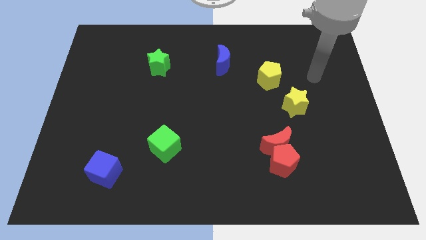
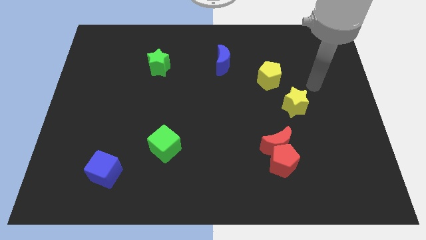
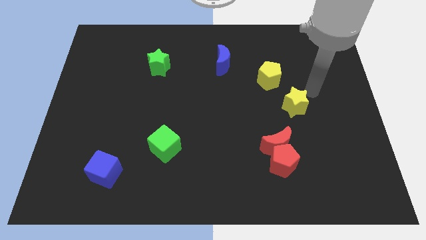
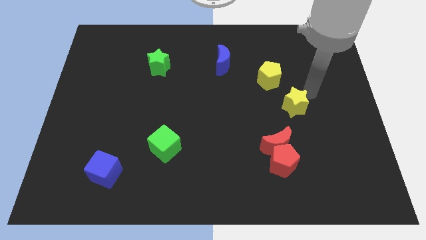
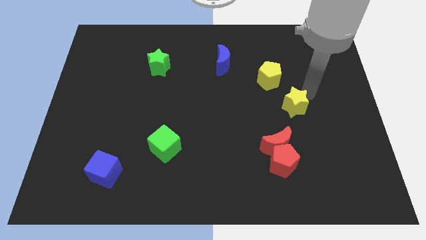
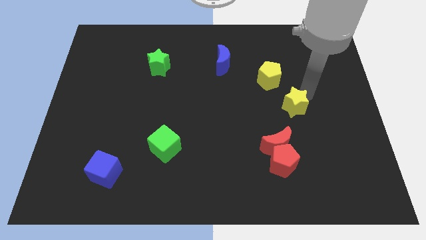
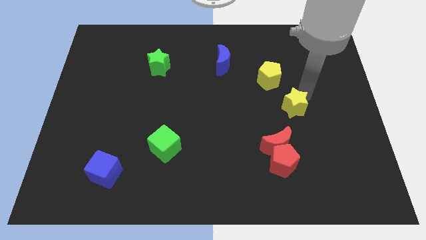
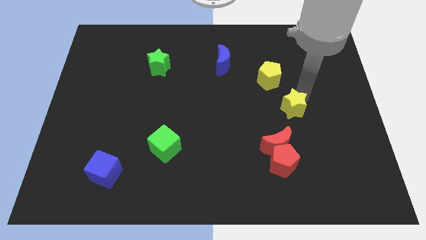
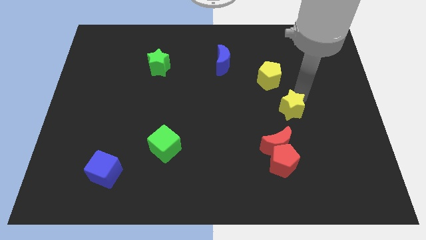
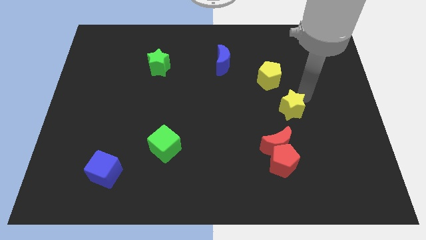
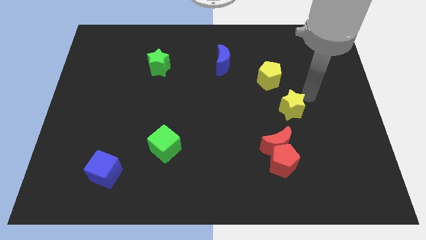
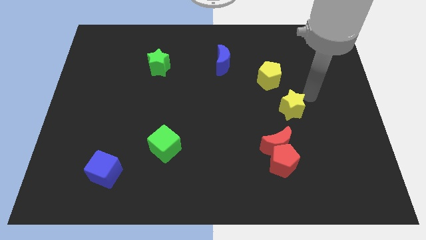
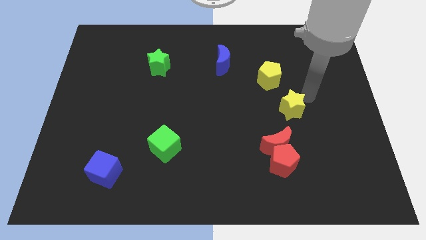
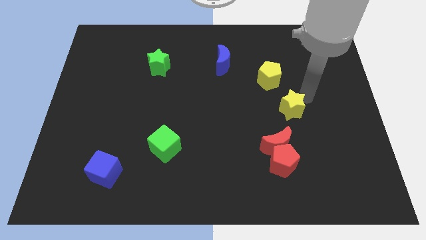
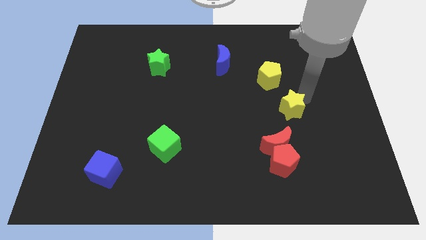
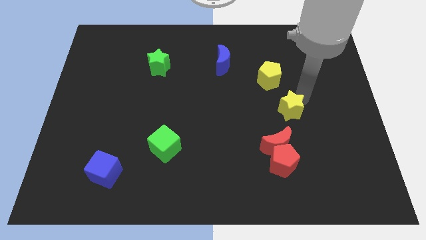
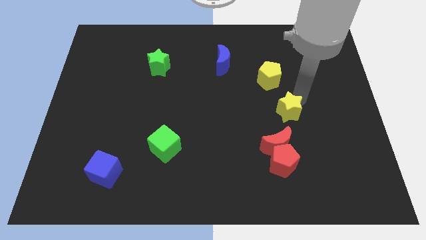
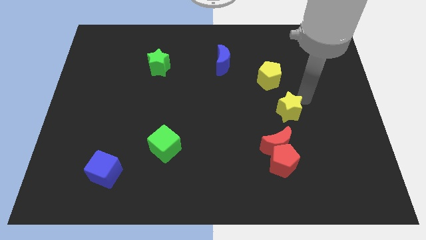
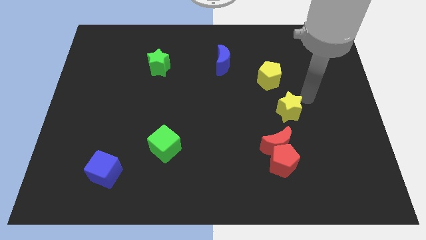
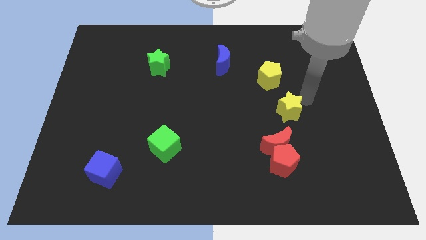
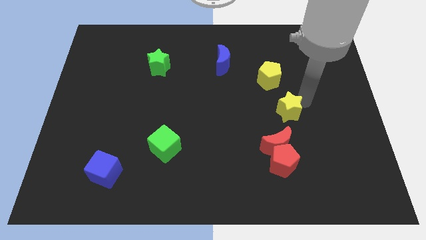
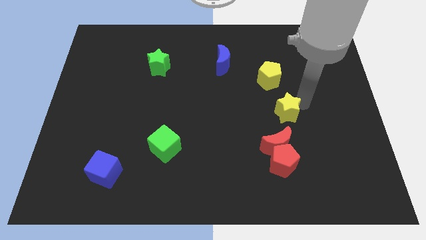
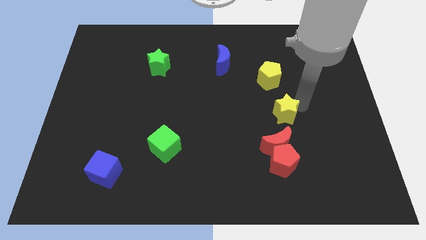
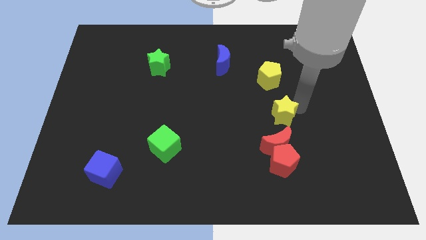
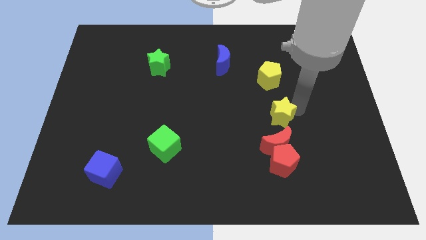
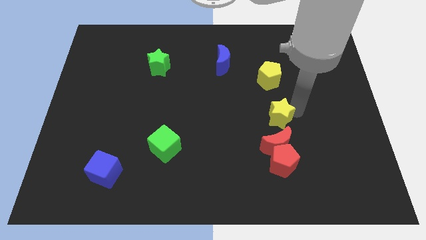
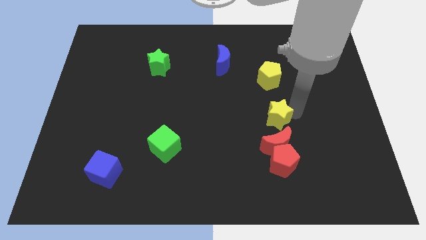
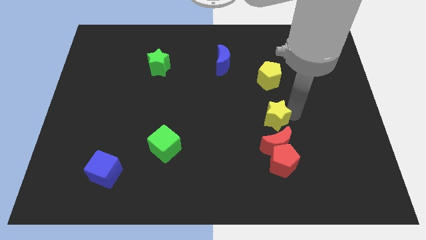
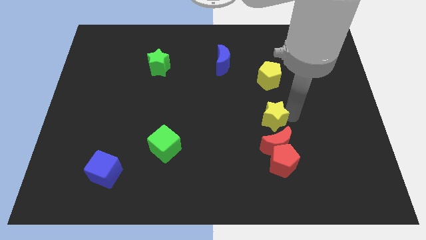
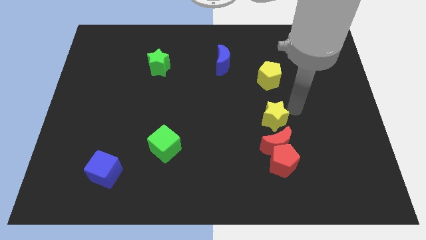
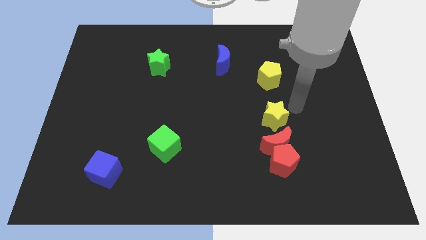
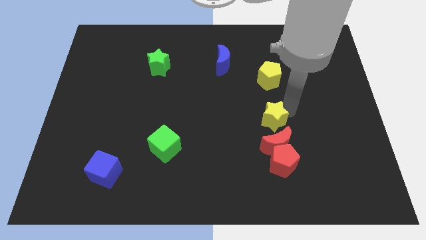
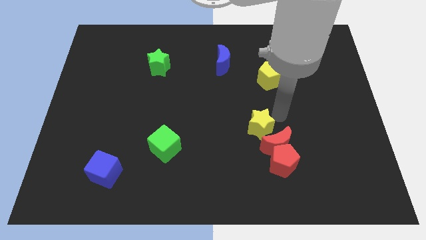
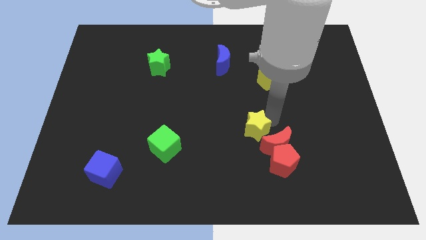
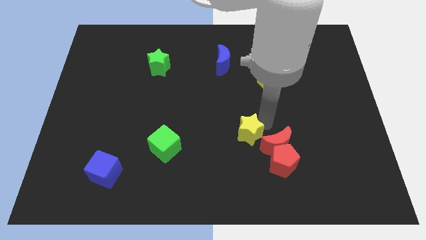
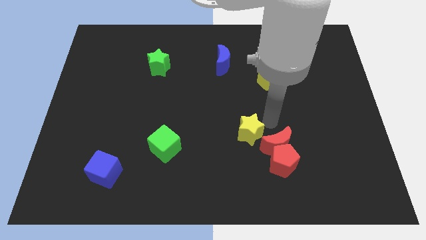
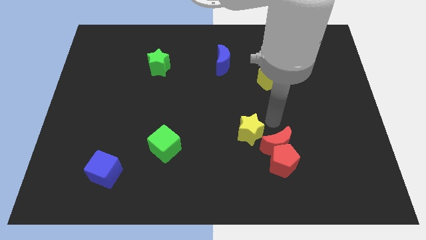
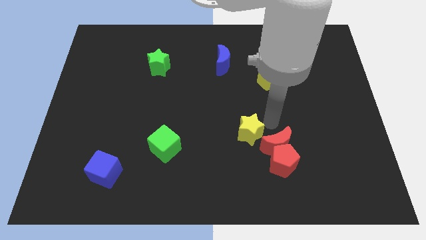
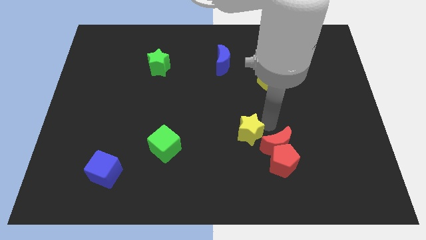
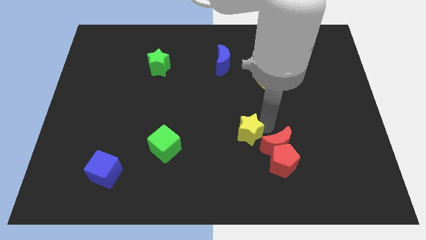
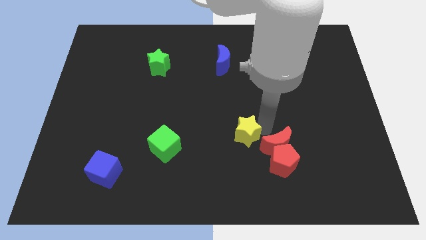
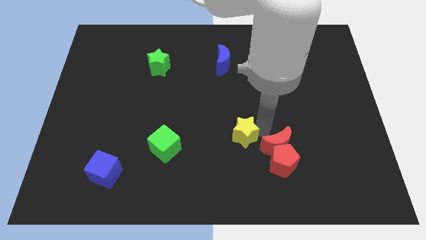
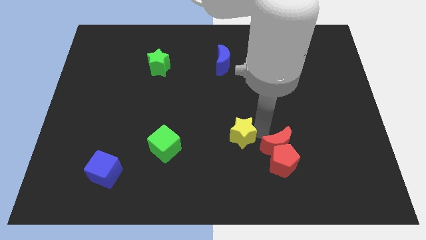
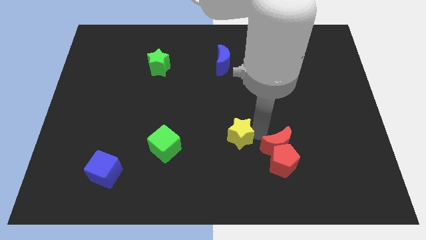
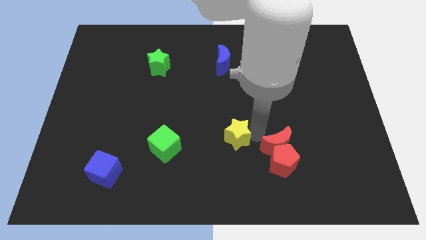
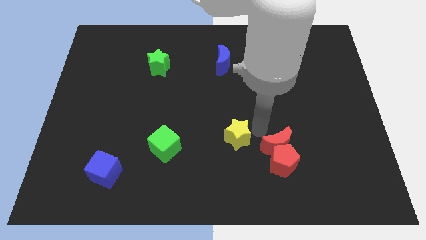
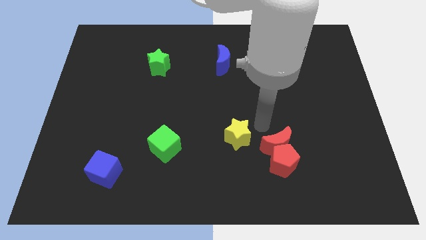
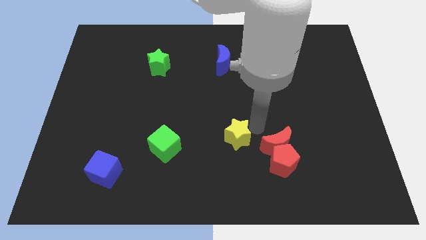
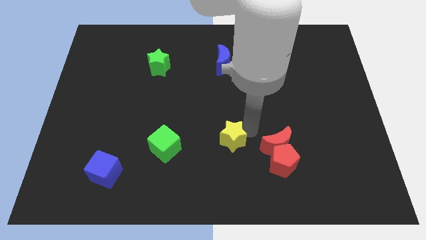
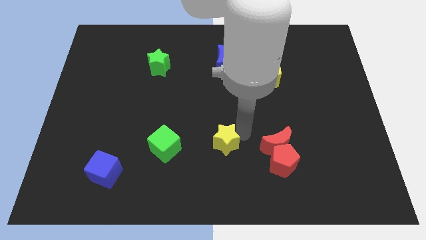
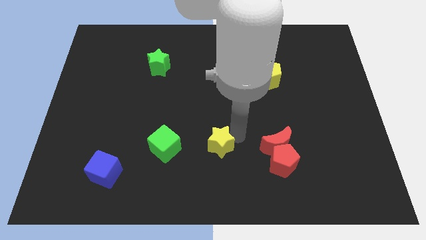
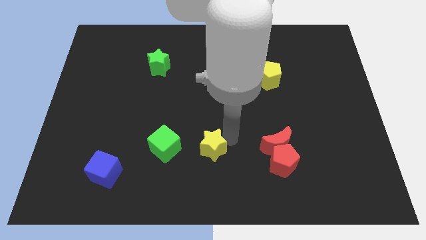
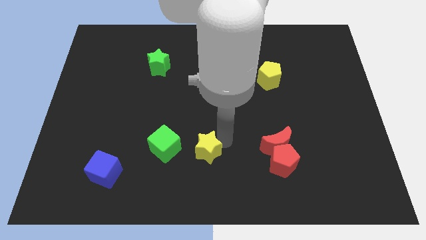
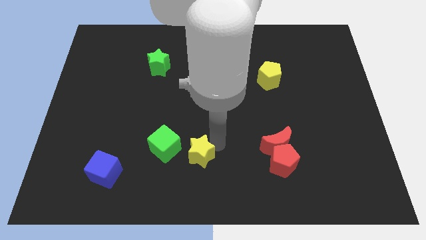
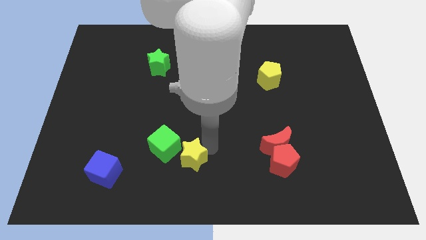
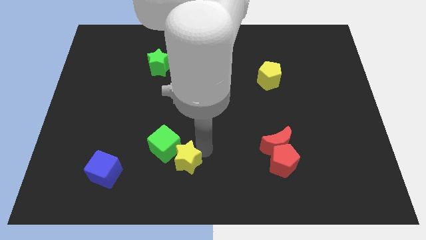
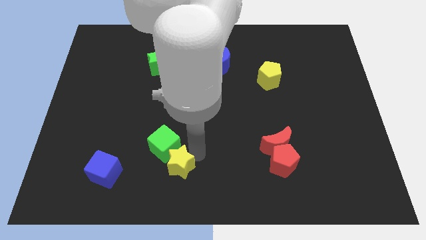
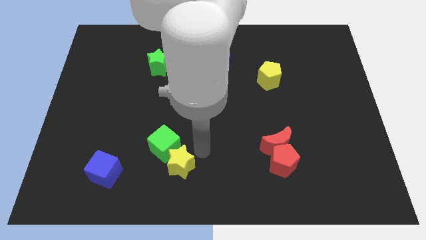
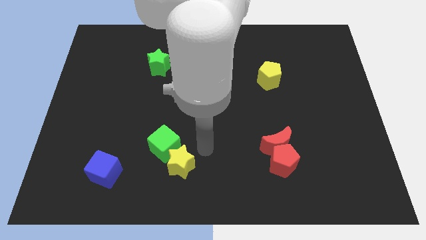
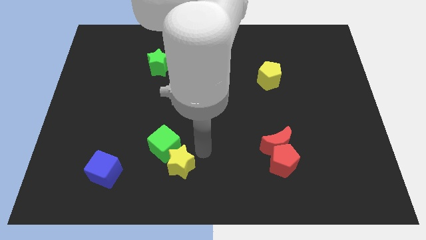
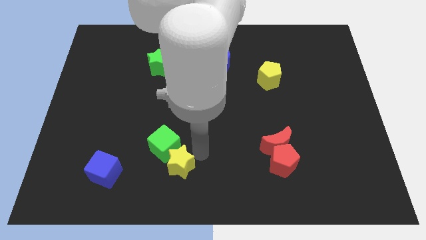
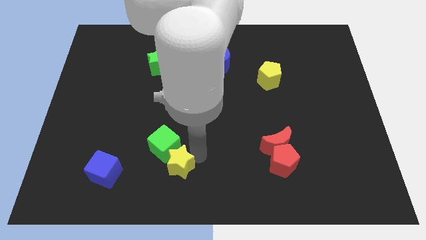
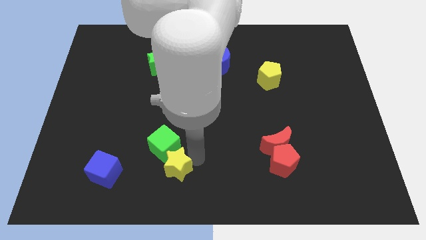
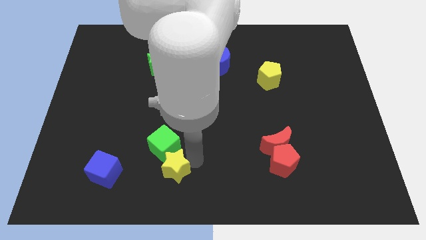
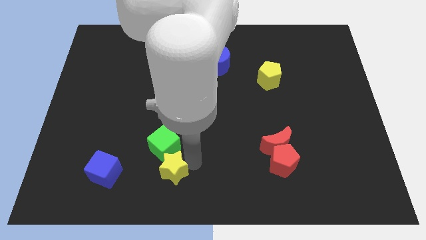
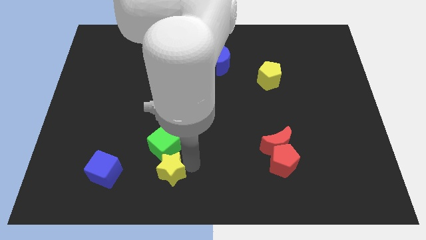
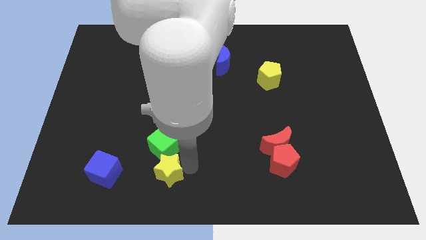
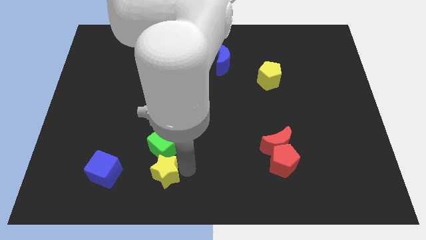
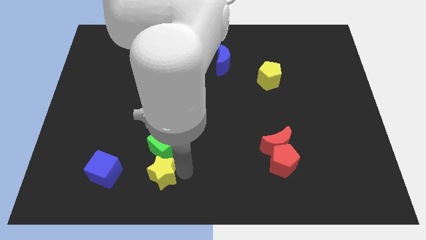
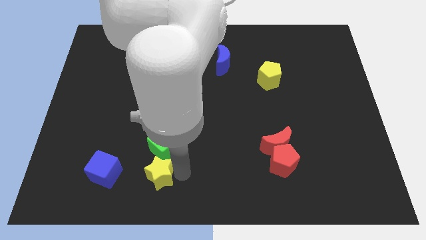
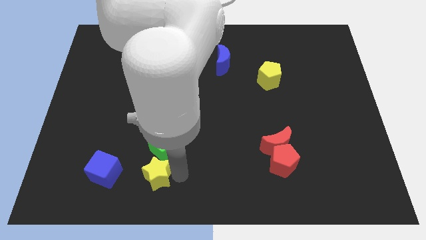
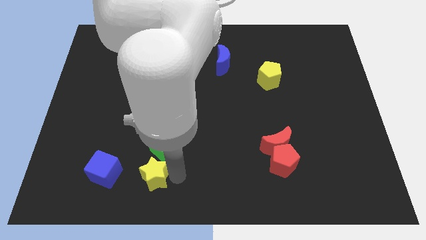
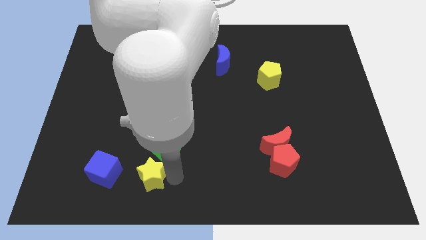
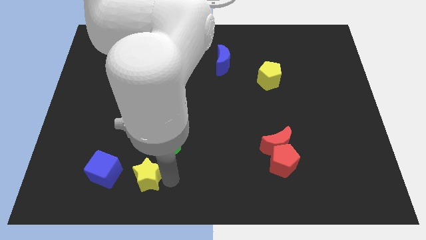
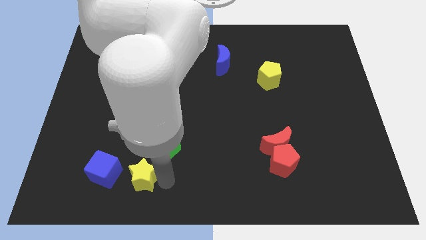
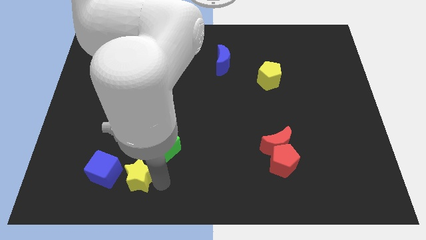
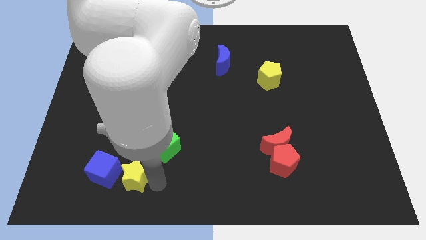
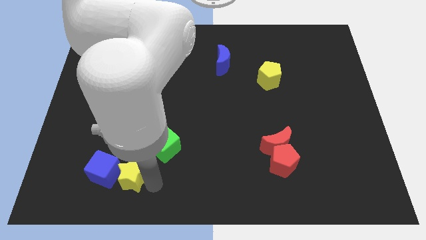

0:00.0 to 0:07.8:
put the yellow star next to the blue cube
